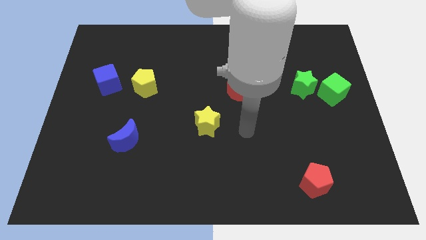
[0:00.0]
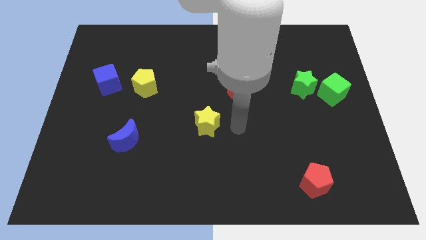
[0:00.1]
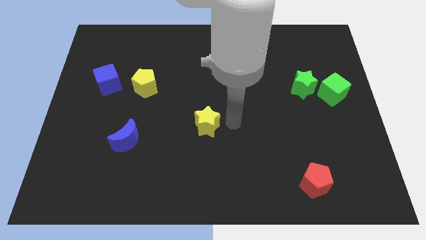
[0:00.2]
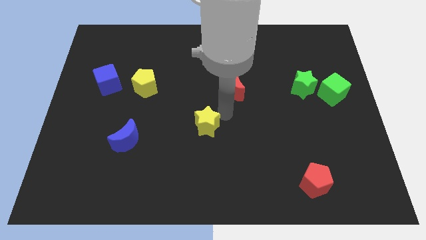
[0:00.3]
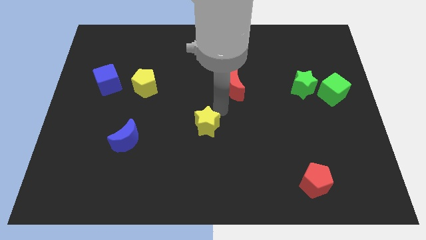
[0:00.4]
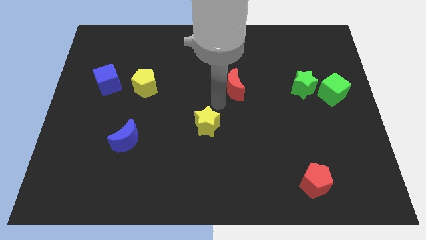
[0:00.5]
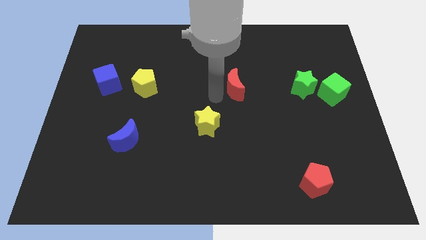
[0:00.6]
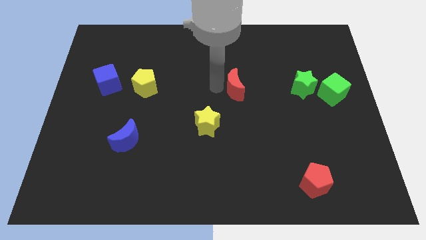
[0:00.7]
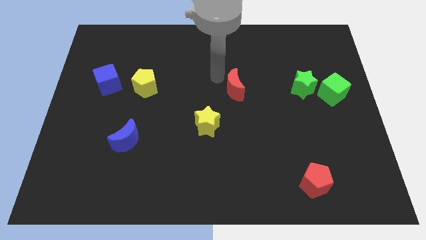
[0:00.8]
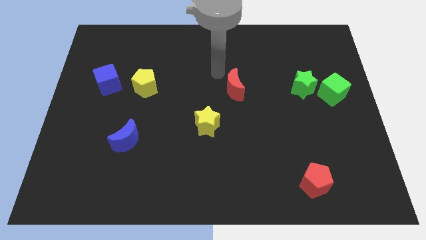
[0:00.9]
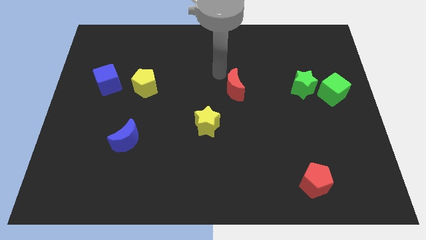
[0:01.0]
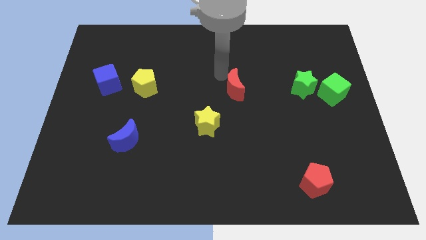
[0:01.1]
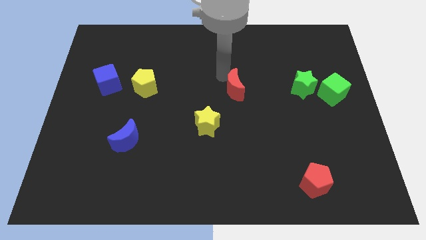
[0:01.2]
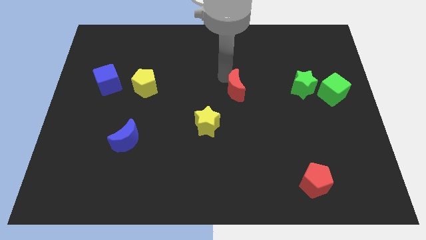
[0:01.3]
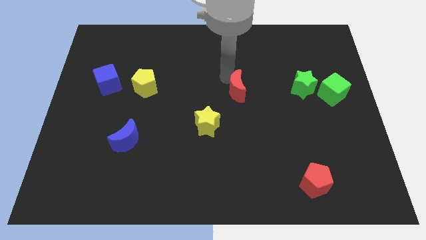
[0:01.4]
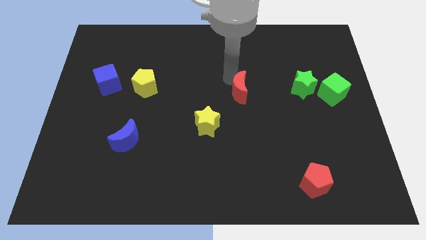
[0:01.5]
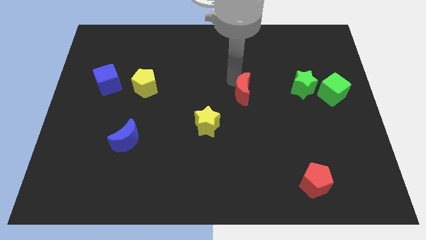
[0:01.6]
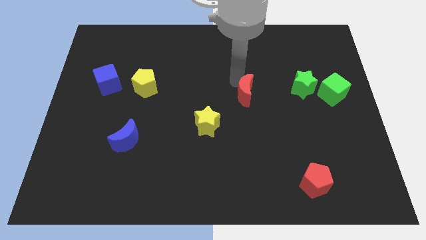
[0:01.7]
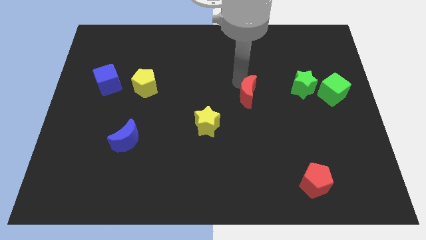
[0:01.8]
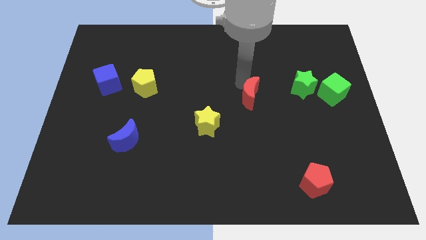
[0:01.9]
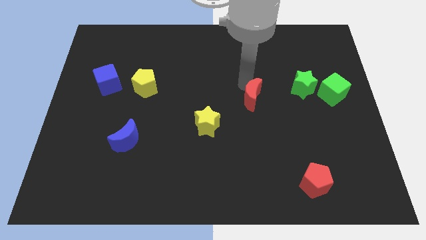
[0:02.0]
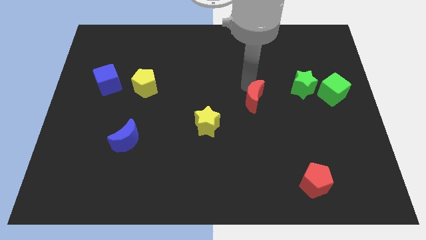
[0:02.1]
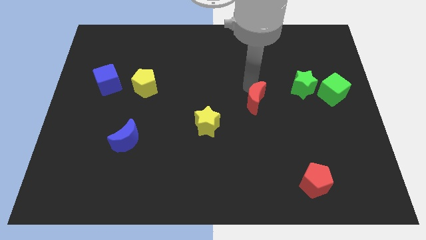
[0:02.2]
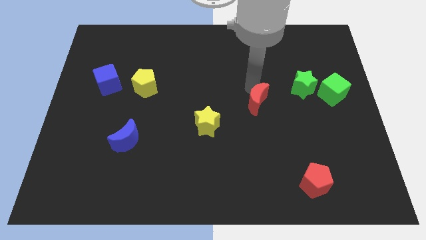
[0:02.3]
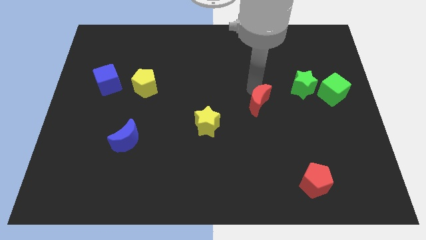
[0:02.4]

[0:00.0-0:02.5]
slide the red moon a bit downwards and to the right

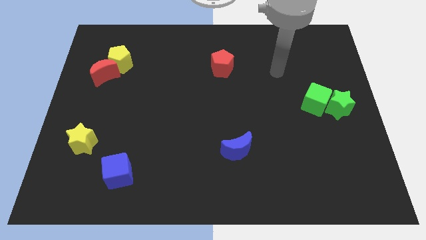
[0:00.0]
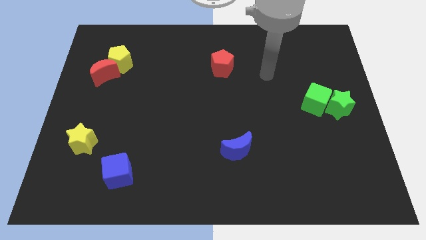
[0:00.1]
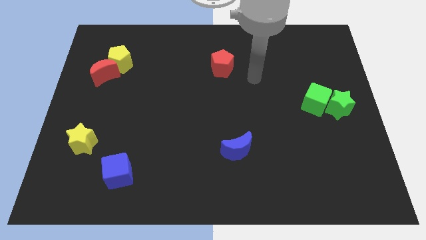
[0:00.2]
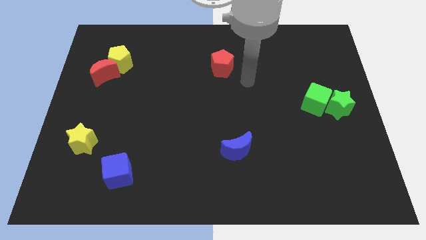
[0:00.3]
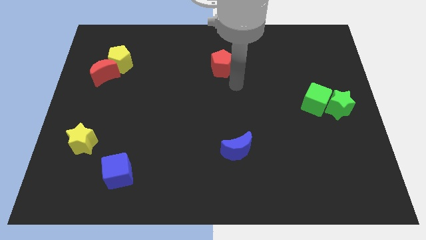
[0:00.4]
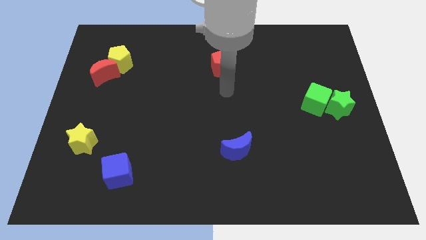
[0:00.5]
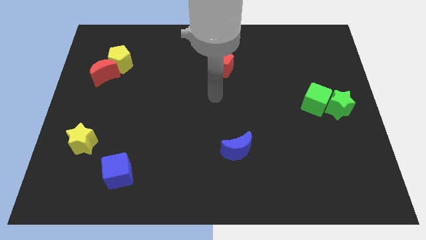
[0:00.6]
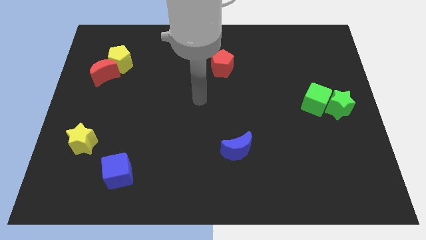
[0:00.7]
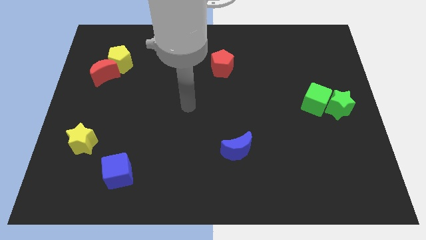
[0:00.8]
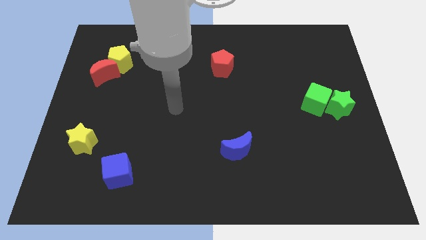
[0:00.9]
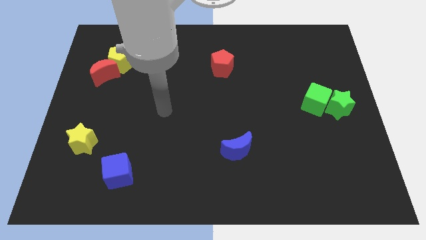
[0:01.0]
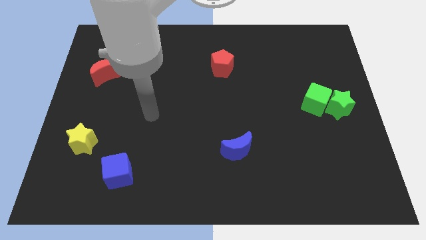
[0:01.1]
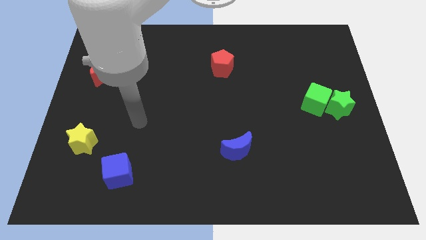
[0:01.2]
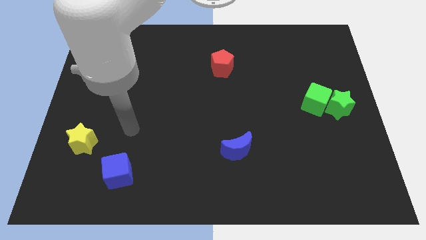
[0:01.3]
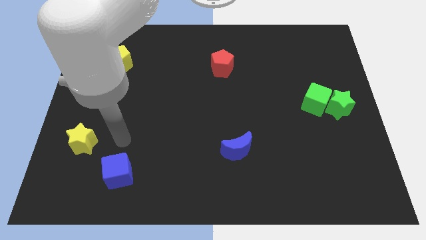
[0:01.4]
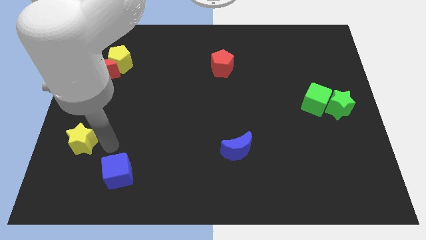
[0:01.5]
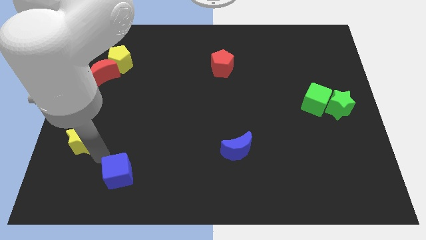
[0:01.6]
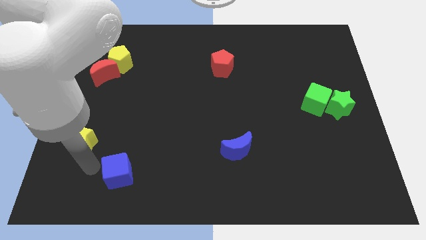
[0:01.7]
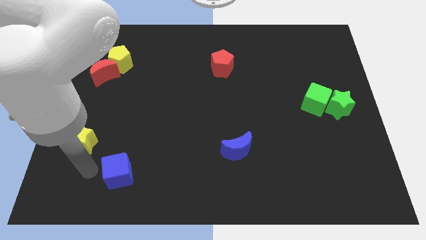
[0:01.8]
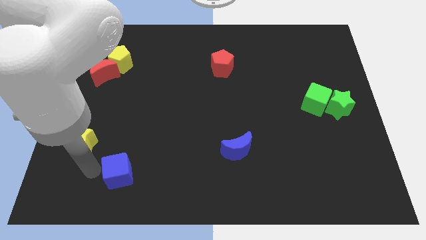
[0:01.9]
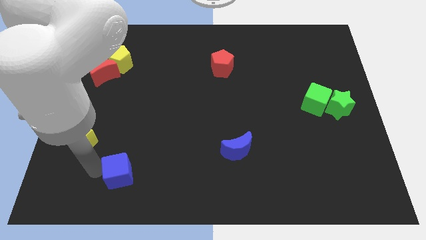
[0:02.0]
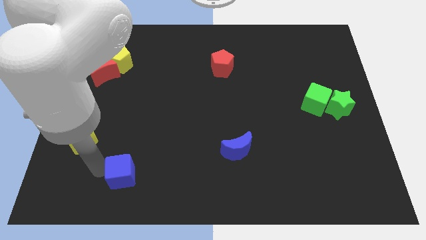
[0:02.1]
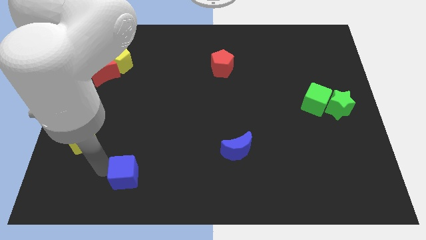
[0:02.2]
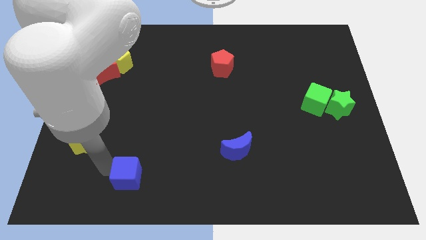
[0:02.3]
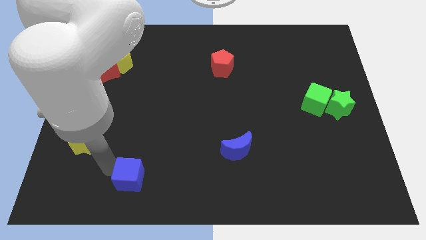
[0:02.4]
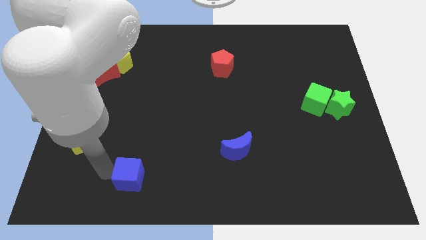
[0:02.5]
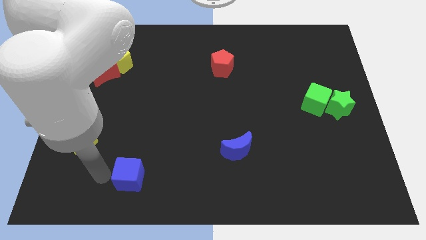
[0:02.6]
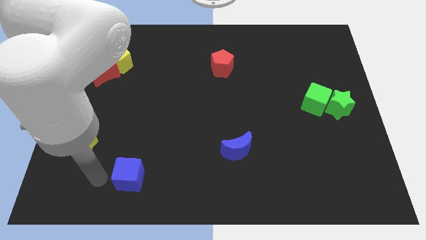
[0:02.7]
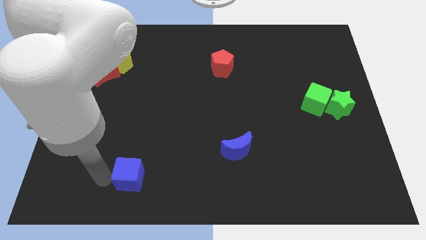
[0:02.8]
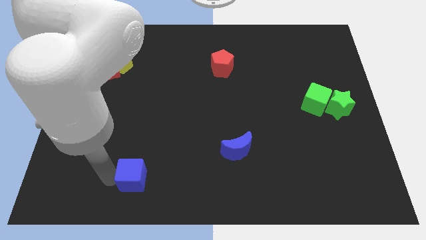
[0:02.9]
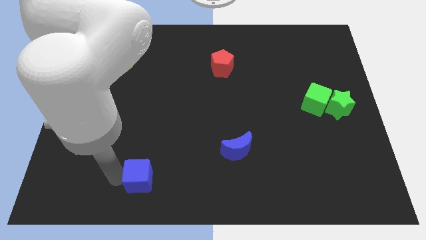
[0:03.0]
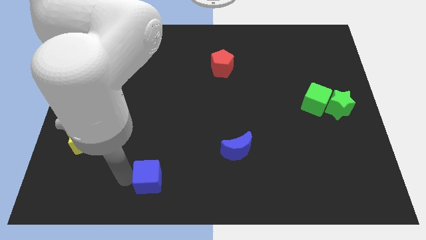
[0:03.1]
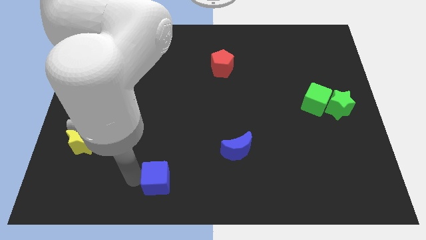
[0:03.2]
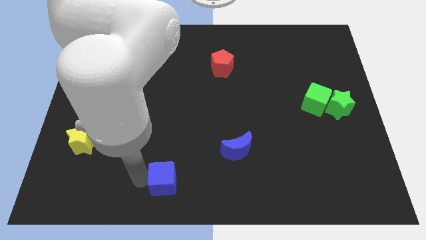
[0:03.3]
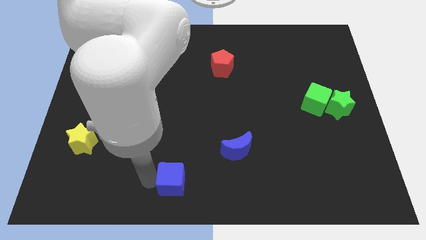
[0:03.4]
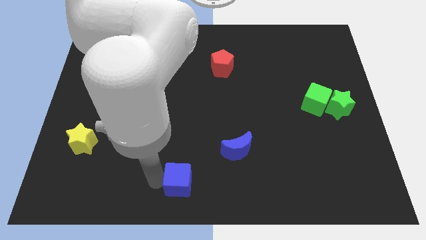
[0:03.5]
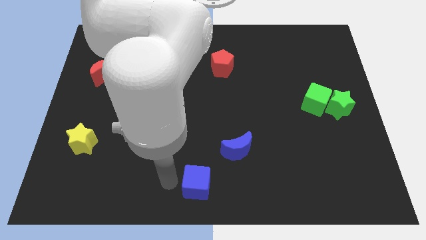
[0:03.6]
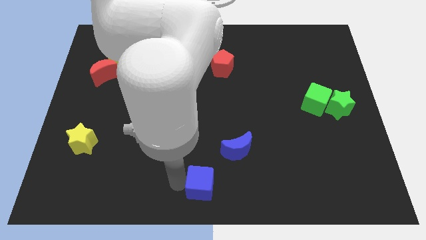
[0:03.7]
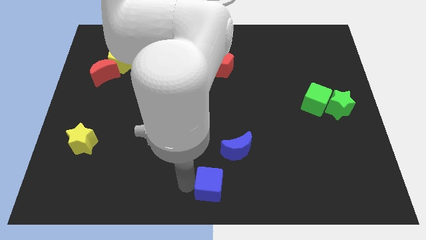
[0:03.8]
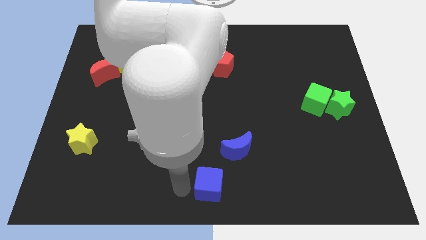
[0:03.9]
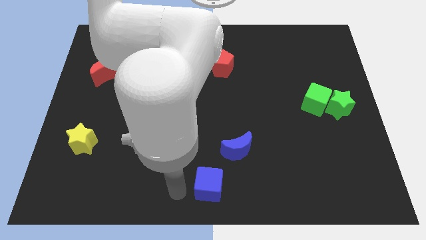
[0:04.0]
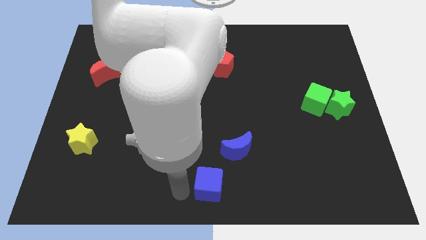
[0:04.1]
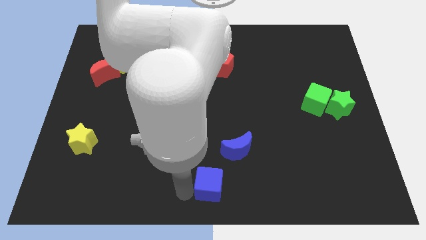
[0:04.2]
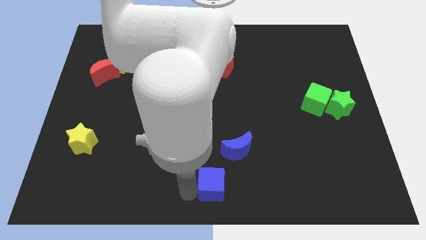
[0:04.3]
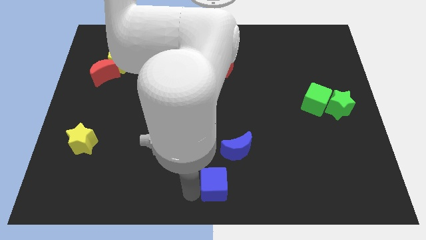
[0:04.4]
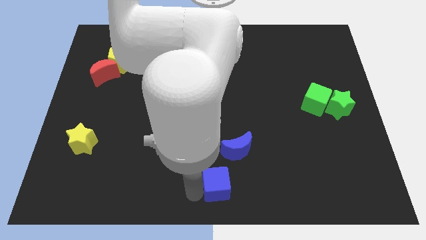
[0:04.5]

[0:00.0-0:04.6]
slide the blue cube right

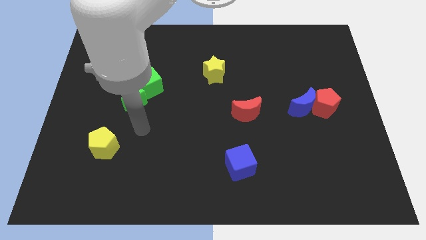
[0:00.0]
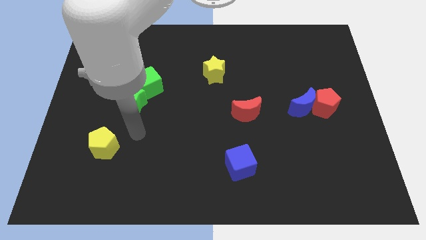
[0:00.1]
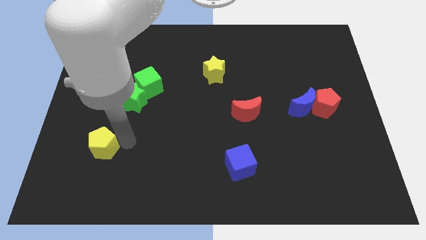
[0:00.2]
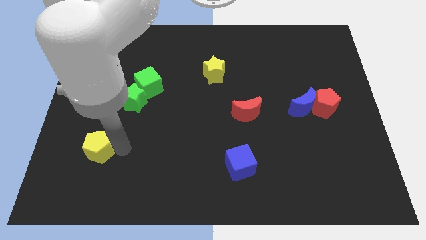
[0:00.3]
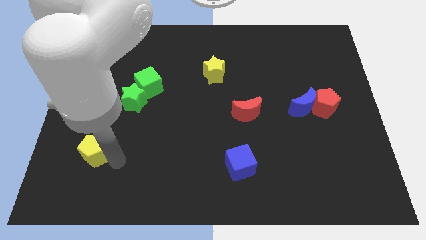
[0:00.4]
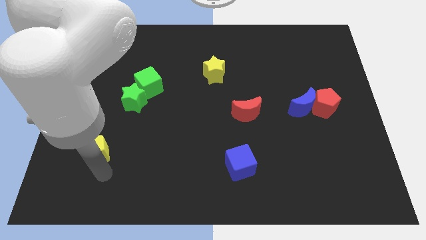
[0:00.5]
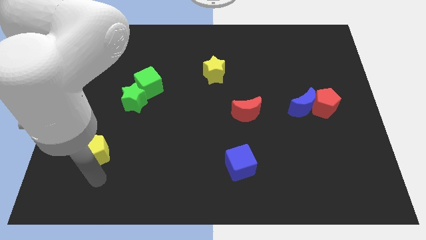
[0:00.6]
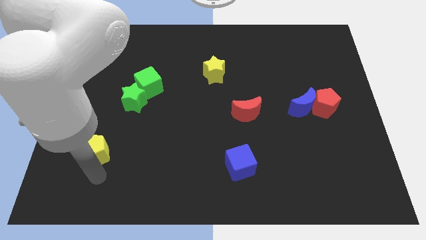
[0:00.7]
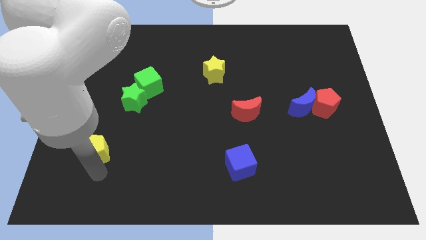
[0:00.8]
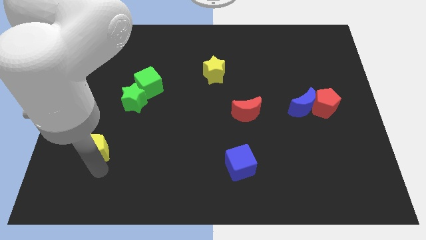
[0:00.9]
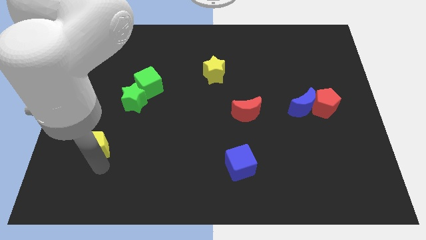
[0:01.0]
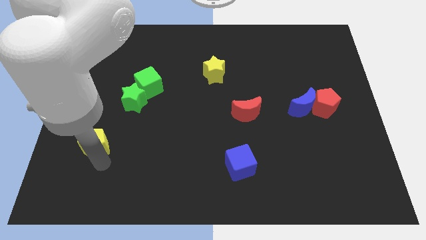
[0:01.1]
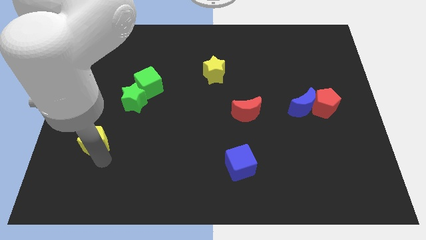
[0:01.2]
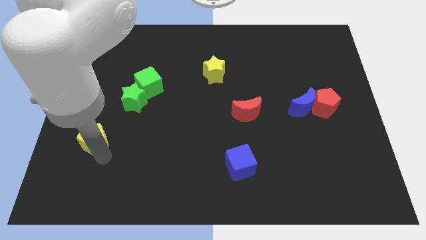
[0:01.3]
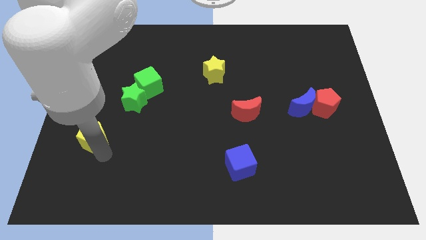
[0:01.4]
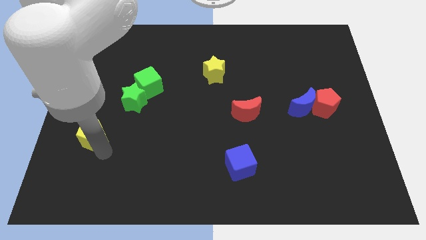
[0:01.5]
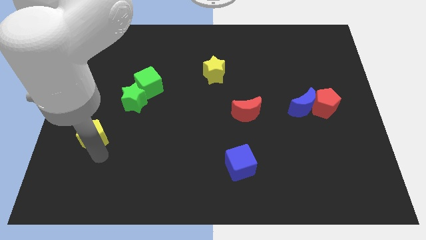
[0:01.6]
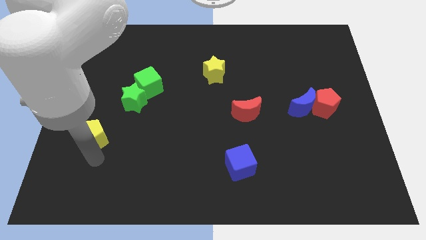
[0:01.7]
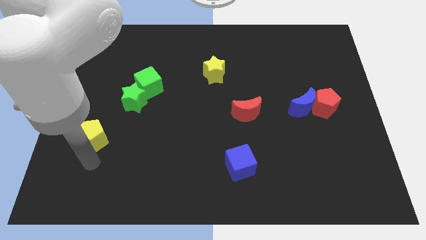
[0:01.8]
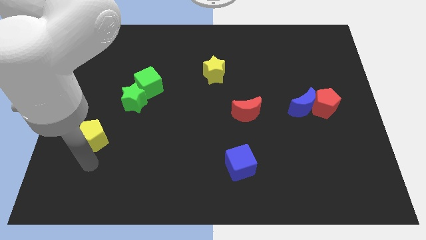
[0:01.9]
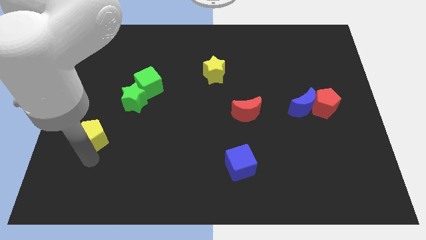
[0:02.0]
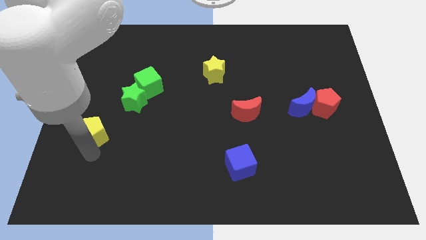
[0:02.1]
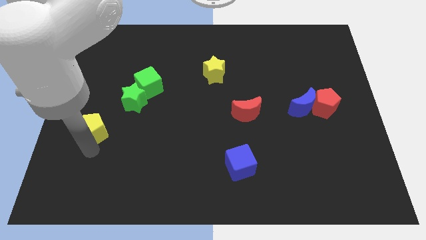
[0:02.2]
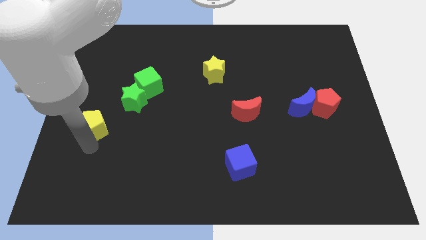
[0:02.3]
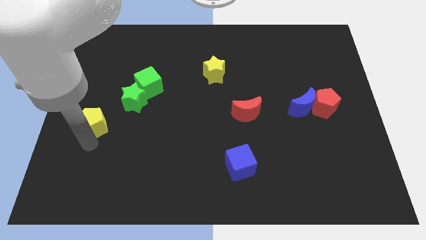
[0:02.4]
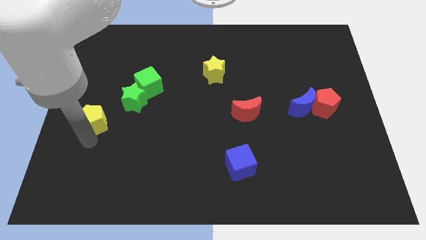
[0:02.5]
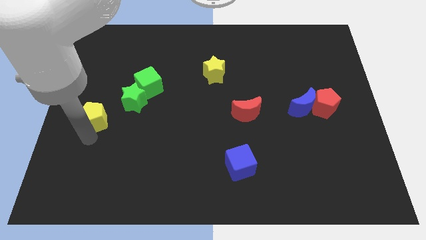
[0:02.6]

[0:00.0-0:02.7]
slightly push the yellow pentagon up
